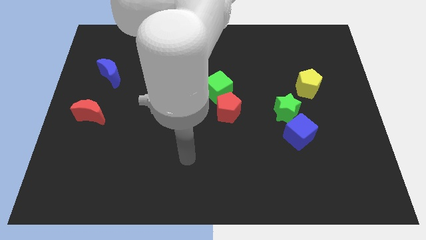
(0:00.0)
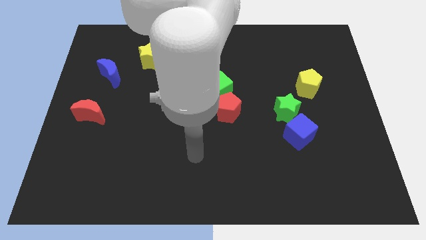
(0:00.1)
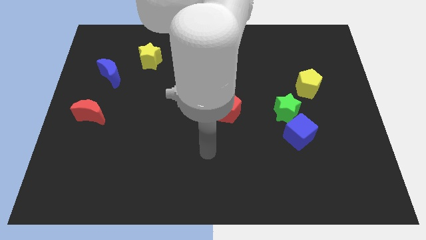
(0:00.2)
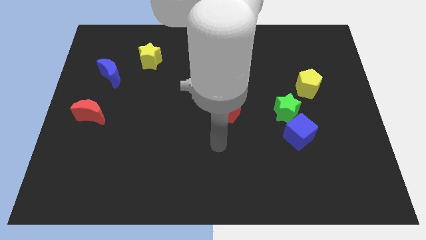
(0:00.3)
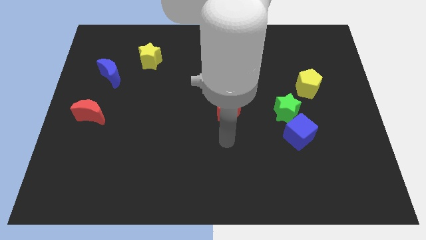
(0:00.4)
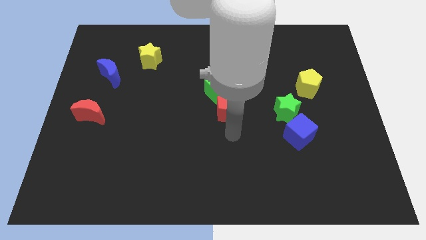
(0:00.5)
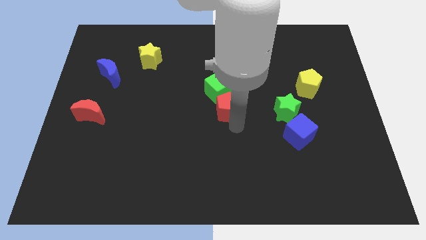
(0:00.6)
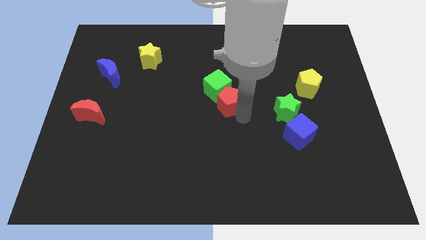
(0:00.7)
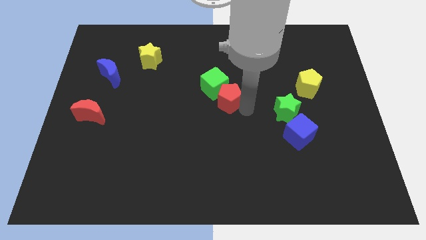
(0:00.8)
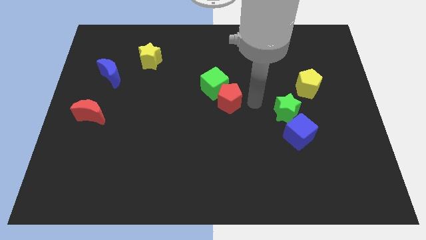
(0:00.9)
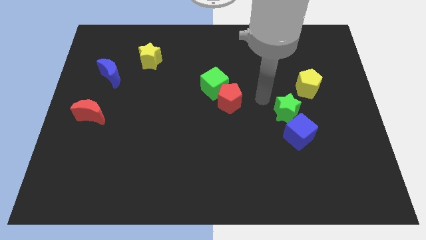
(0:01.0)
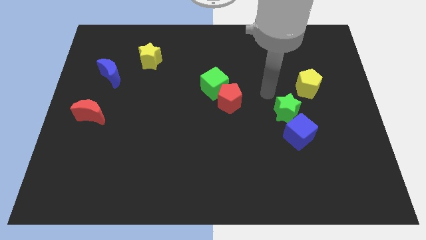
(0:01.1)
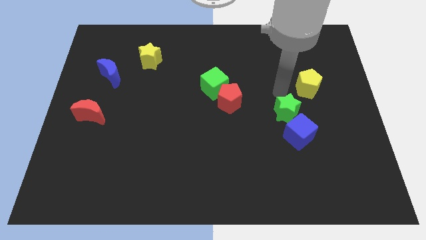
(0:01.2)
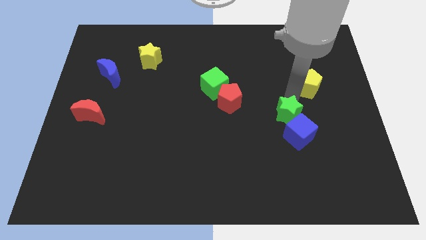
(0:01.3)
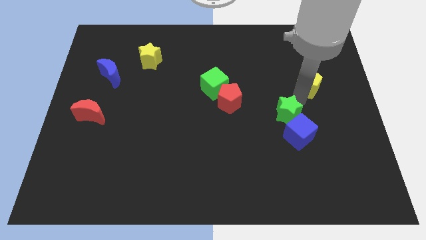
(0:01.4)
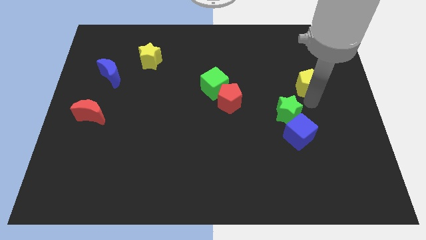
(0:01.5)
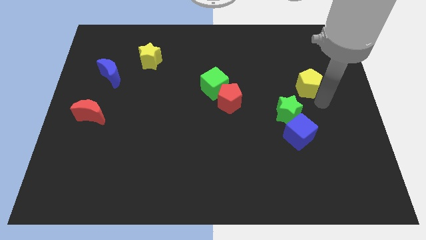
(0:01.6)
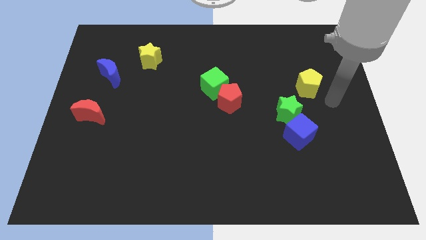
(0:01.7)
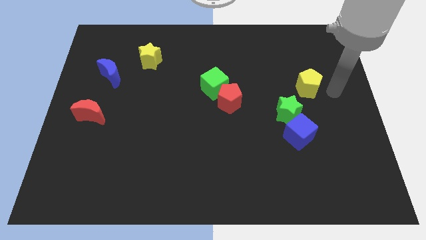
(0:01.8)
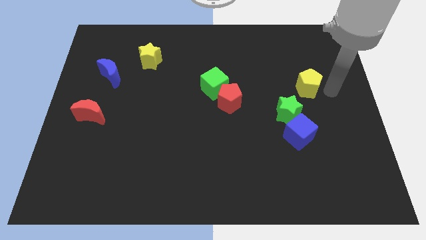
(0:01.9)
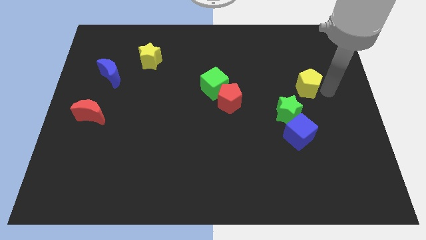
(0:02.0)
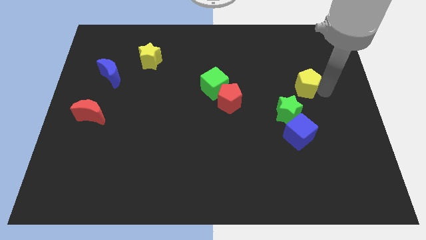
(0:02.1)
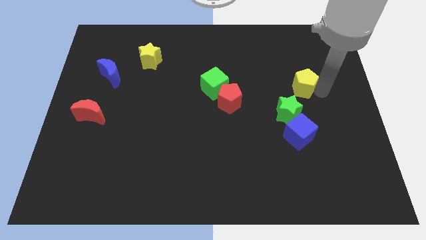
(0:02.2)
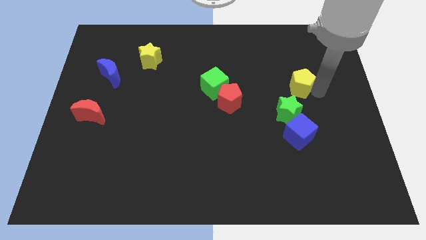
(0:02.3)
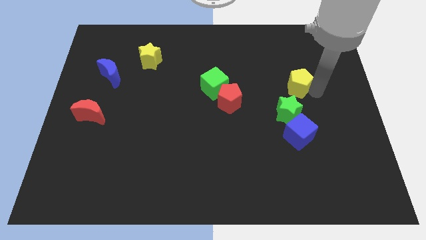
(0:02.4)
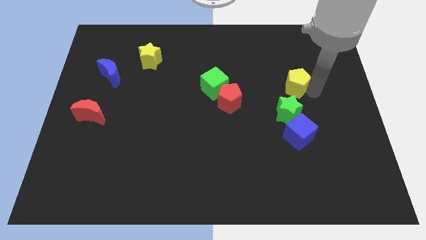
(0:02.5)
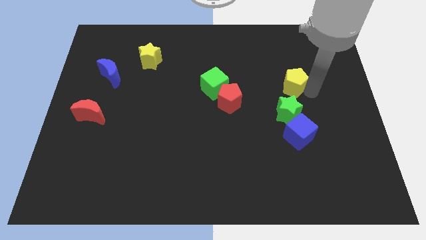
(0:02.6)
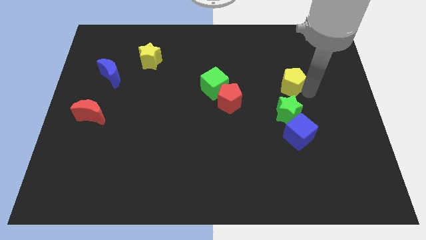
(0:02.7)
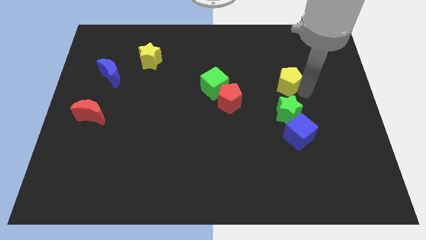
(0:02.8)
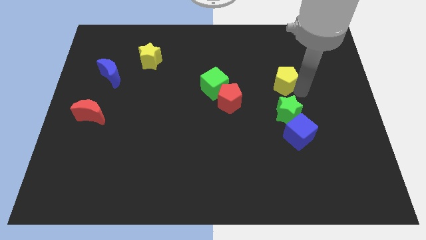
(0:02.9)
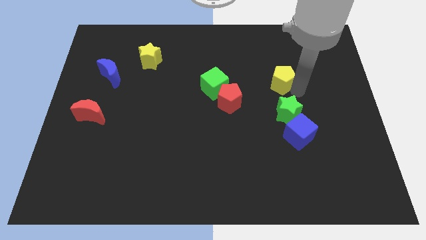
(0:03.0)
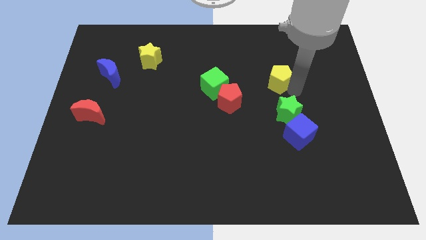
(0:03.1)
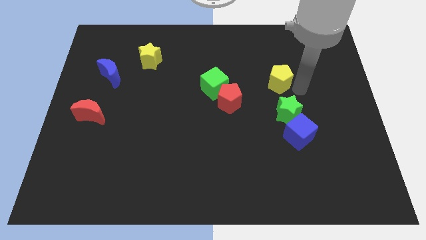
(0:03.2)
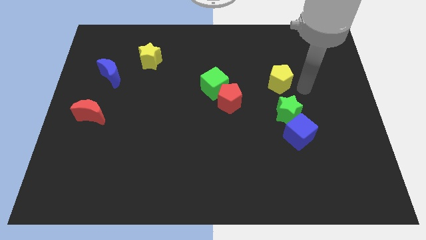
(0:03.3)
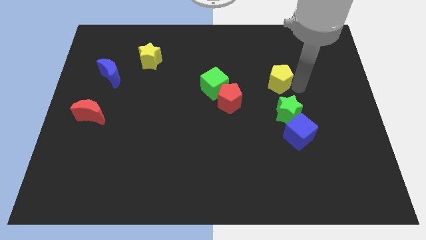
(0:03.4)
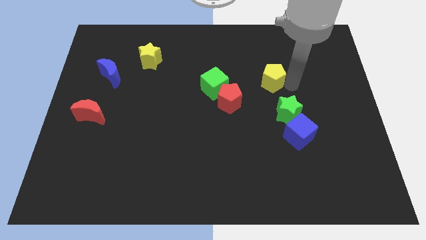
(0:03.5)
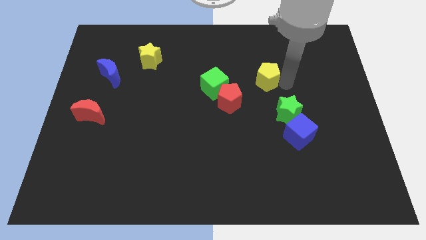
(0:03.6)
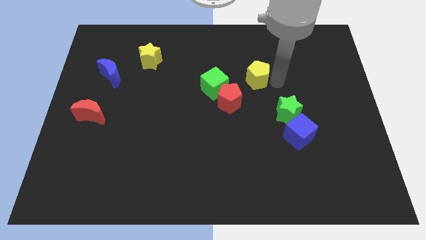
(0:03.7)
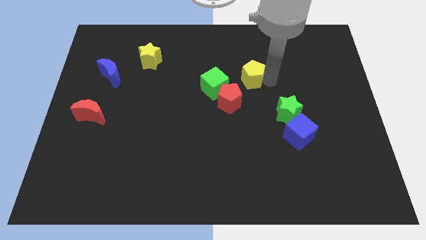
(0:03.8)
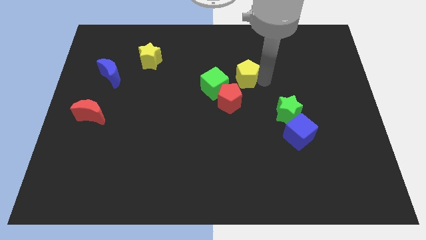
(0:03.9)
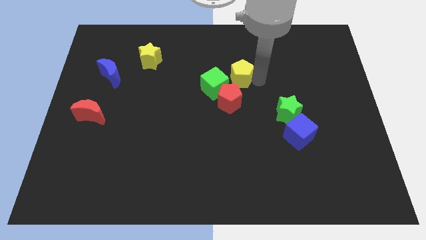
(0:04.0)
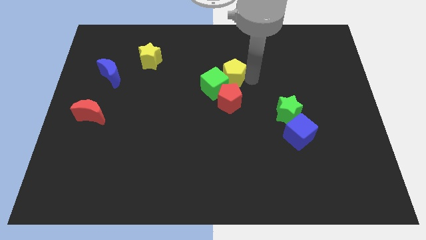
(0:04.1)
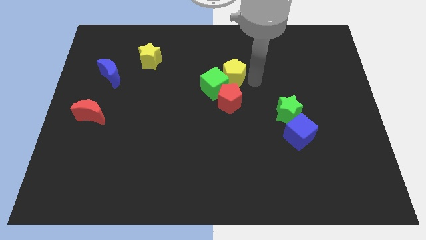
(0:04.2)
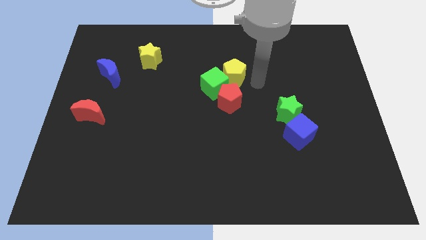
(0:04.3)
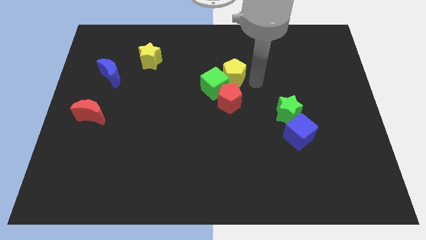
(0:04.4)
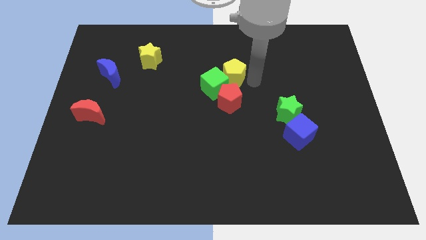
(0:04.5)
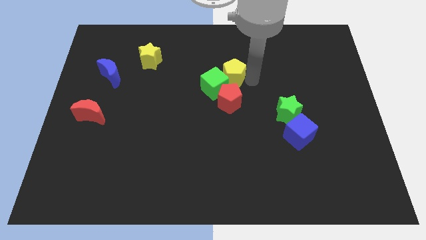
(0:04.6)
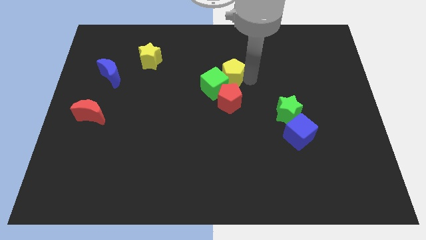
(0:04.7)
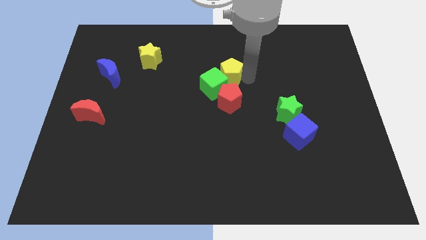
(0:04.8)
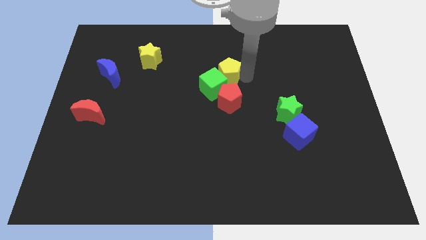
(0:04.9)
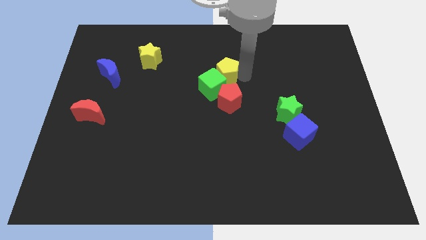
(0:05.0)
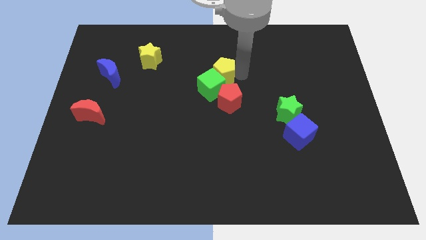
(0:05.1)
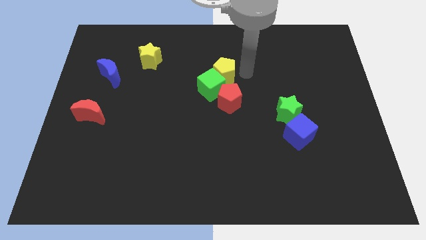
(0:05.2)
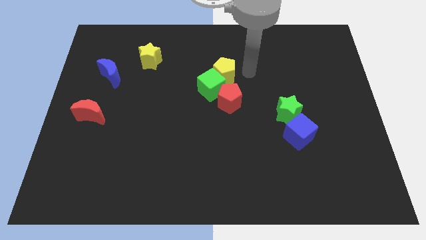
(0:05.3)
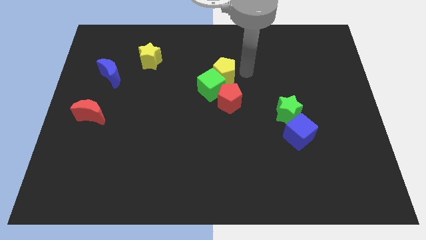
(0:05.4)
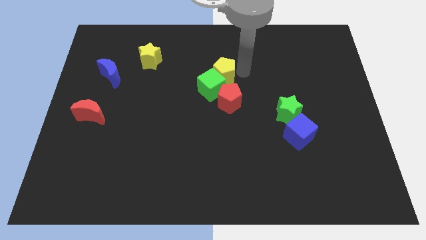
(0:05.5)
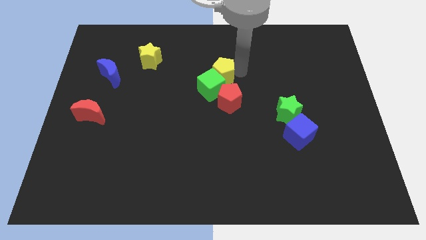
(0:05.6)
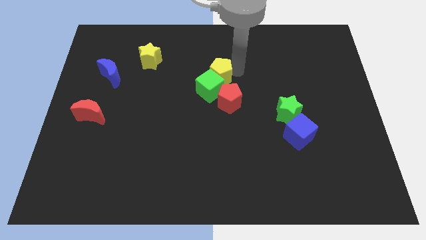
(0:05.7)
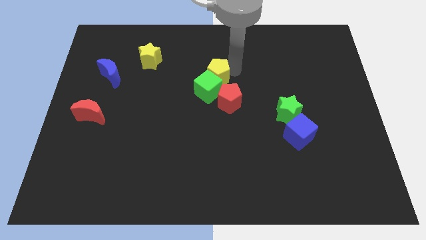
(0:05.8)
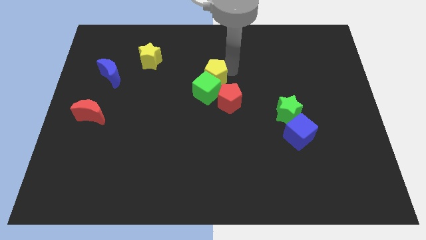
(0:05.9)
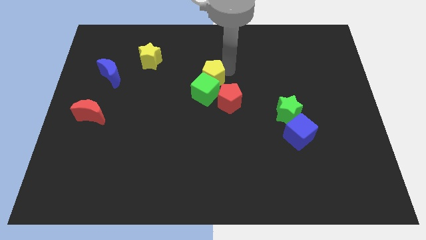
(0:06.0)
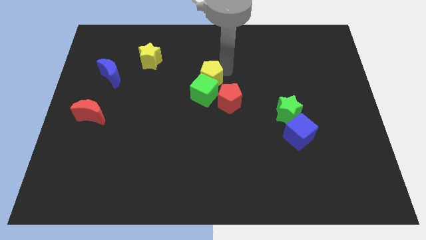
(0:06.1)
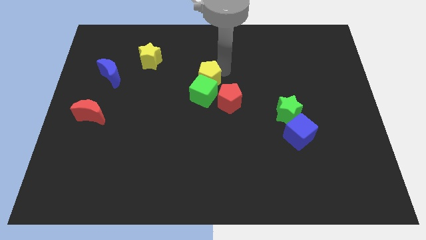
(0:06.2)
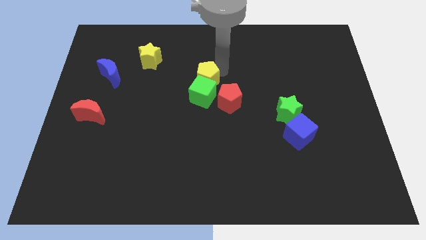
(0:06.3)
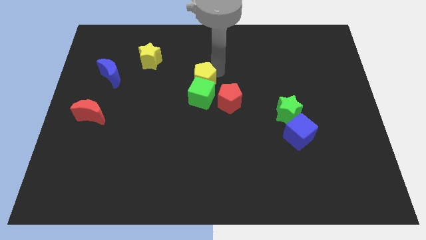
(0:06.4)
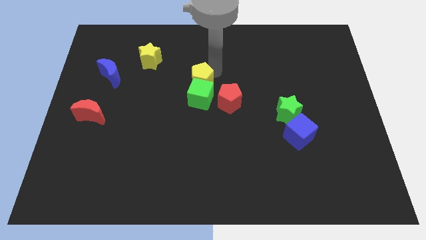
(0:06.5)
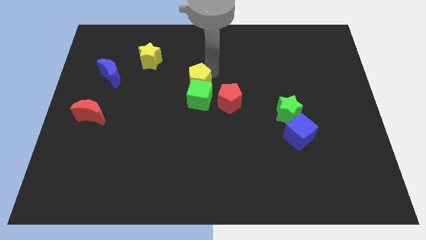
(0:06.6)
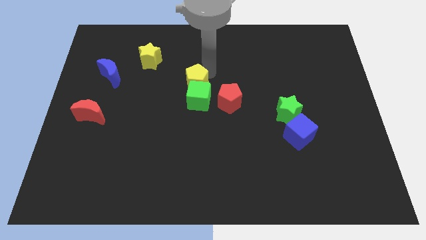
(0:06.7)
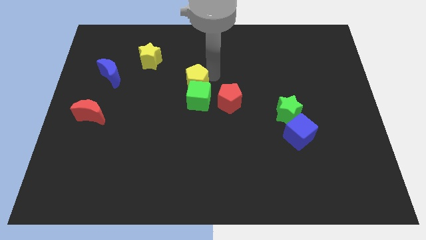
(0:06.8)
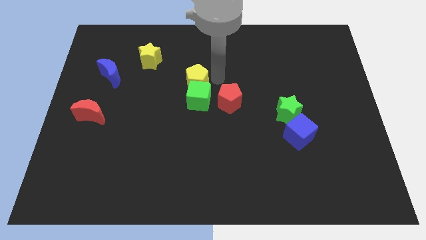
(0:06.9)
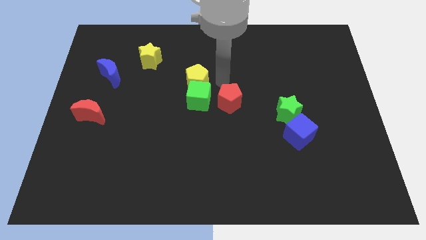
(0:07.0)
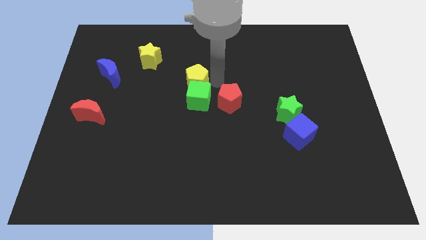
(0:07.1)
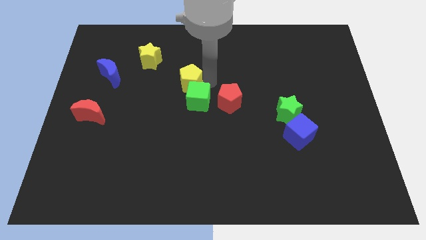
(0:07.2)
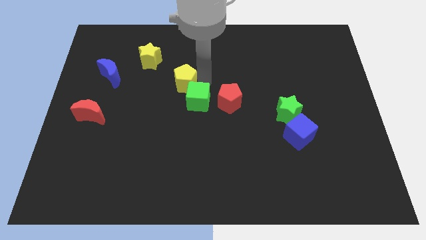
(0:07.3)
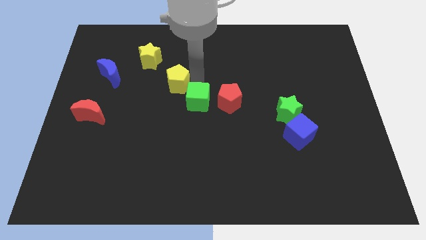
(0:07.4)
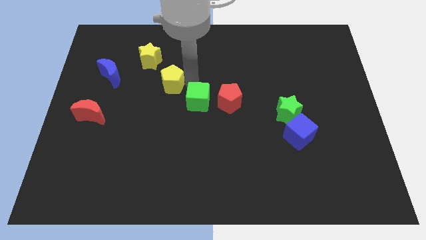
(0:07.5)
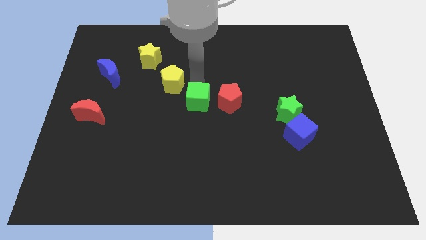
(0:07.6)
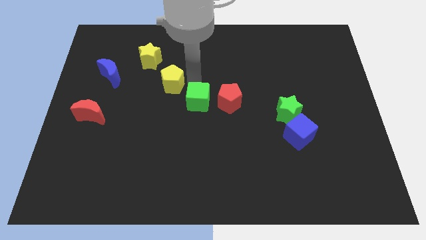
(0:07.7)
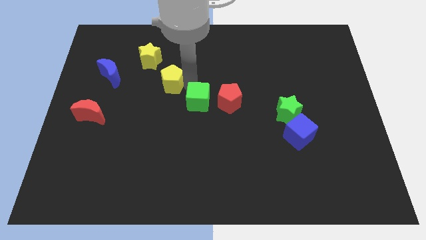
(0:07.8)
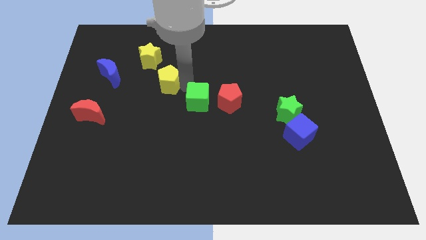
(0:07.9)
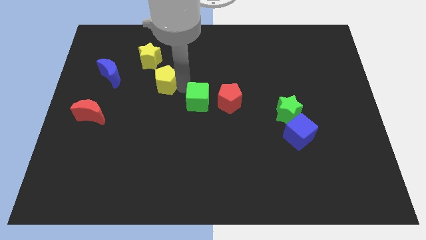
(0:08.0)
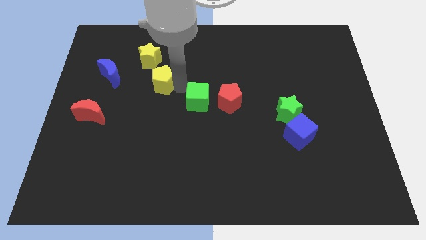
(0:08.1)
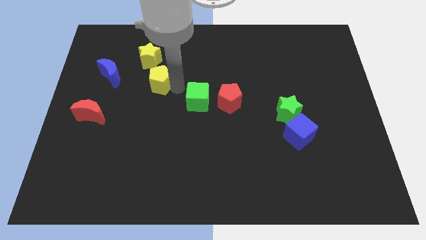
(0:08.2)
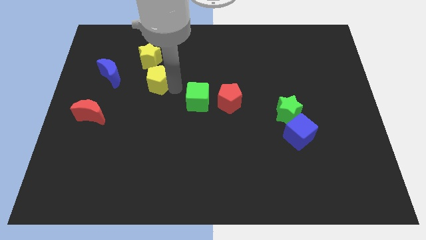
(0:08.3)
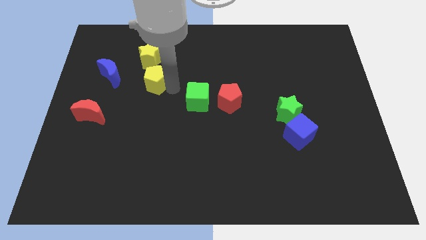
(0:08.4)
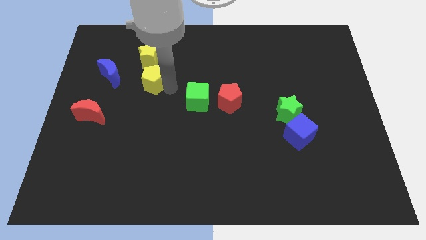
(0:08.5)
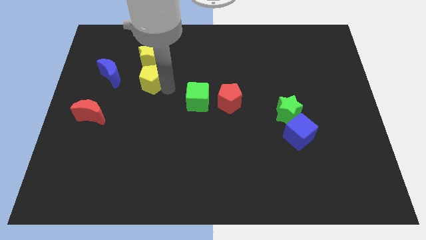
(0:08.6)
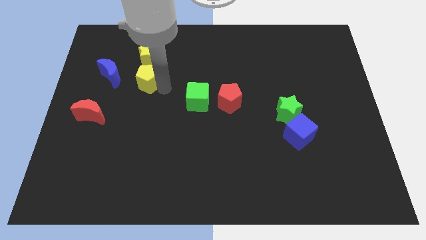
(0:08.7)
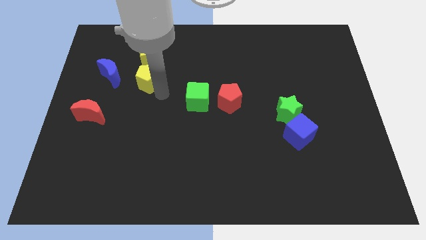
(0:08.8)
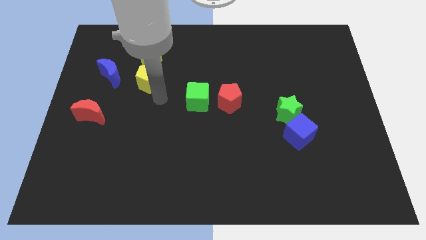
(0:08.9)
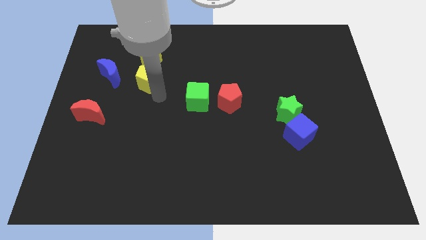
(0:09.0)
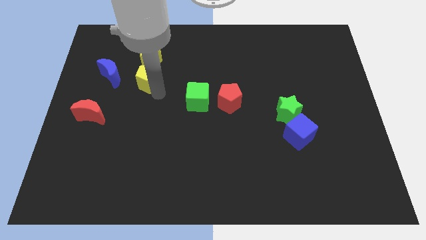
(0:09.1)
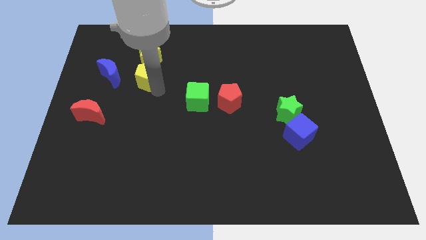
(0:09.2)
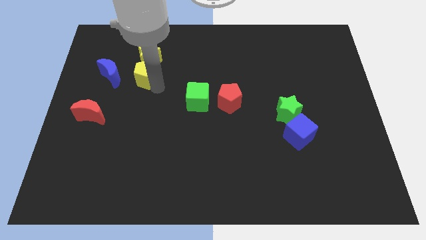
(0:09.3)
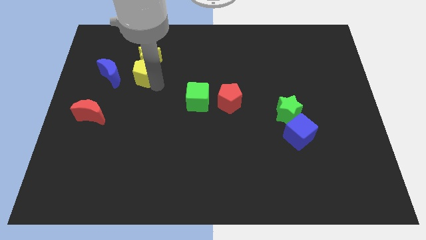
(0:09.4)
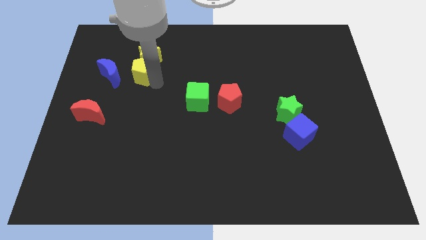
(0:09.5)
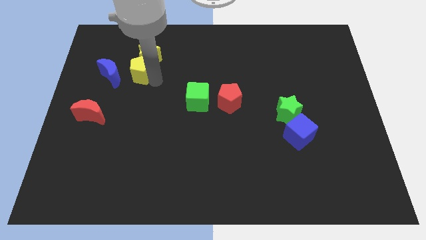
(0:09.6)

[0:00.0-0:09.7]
slide the yellow pentagon to the top right of the blue moon
